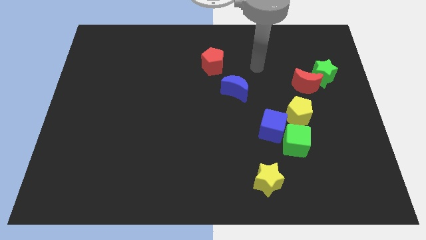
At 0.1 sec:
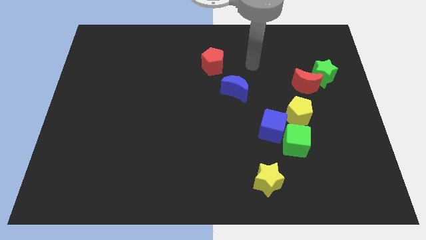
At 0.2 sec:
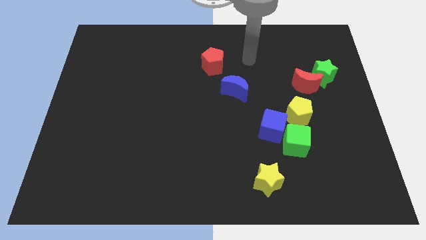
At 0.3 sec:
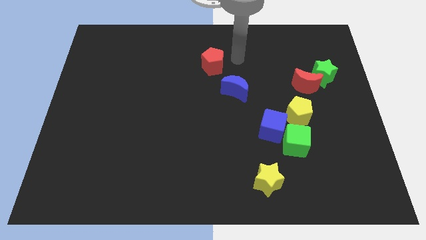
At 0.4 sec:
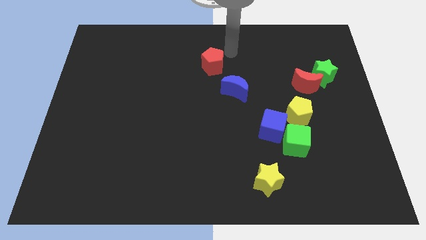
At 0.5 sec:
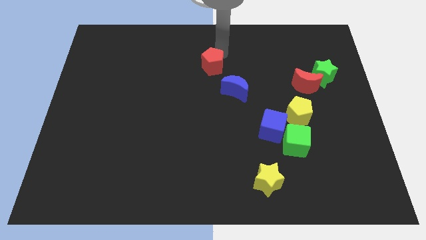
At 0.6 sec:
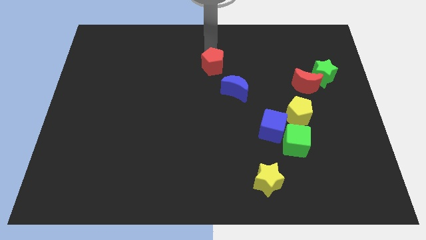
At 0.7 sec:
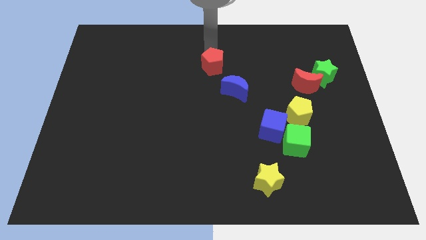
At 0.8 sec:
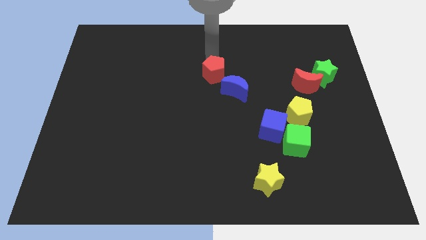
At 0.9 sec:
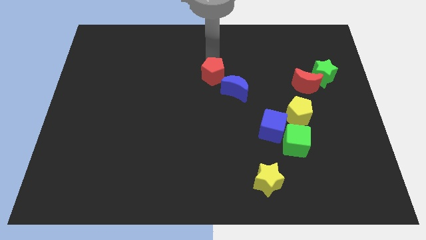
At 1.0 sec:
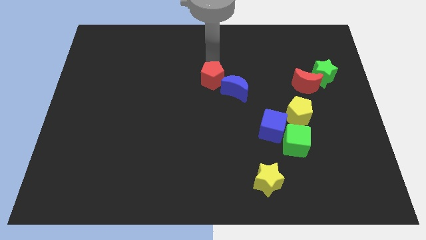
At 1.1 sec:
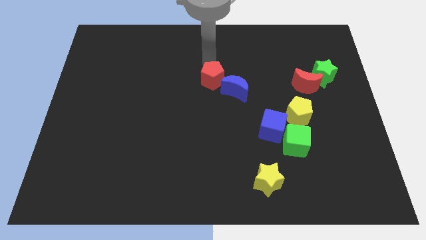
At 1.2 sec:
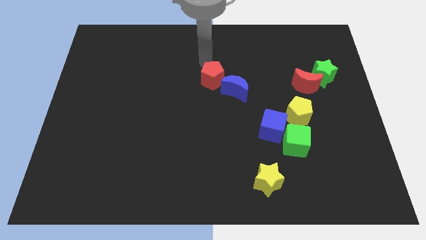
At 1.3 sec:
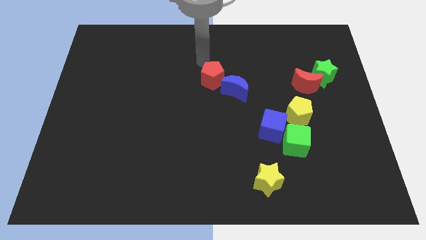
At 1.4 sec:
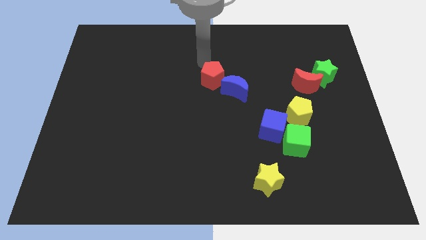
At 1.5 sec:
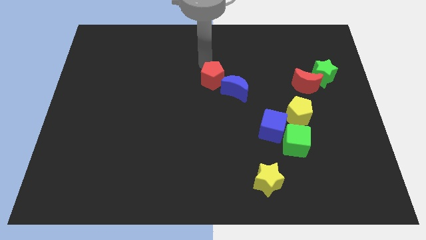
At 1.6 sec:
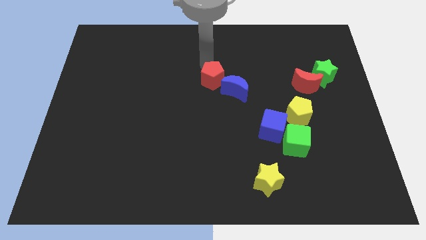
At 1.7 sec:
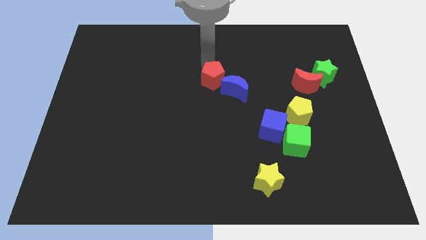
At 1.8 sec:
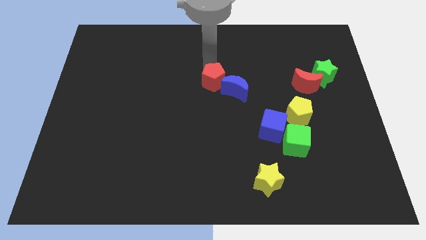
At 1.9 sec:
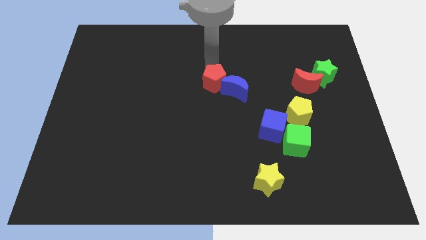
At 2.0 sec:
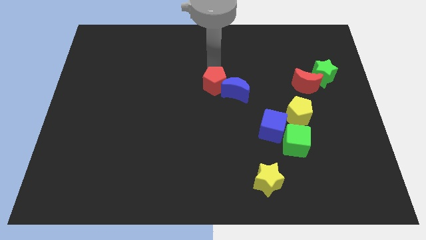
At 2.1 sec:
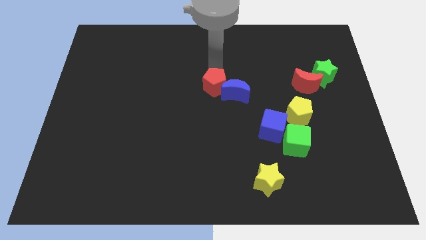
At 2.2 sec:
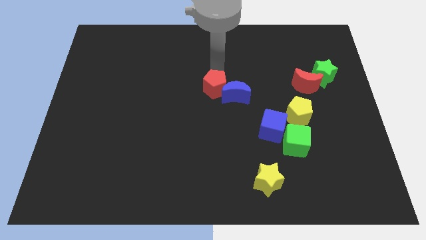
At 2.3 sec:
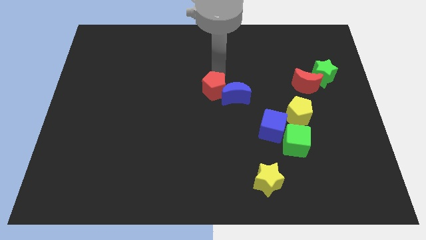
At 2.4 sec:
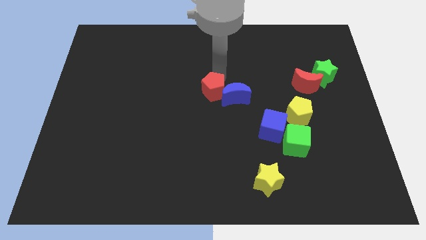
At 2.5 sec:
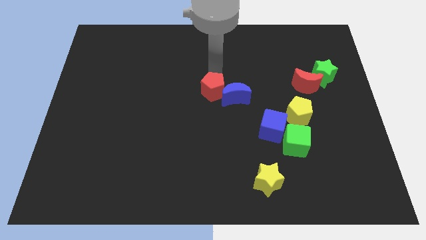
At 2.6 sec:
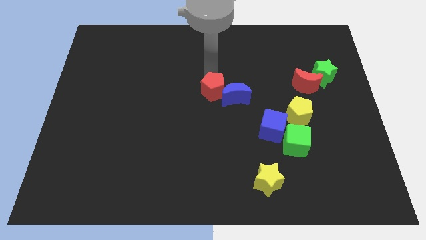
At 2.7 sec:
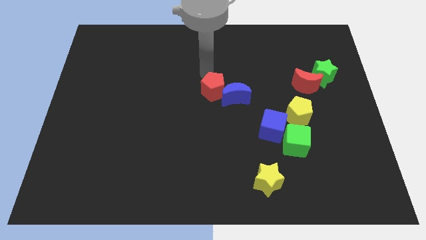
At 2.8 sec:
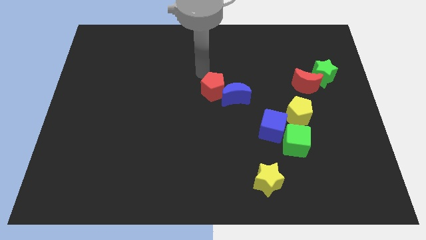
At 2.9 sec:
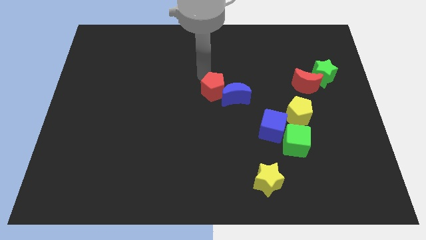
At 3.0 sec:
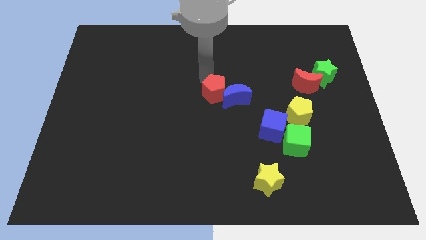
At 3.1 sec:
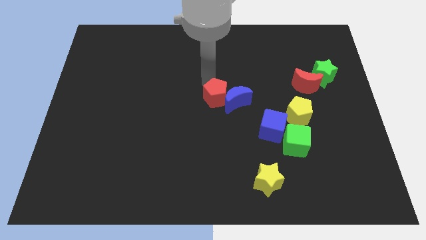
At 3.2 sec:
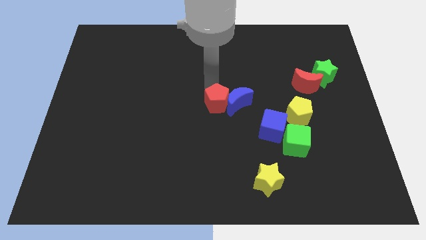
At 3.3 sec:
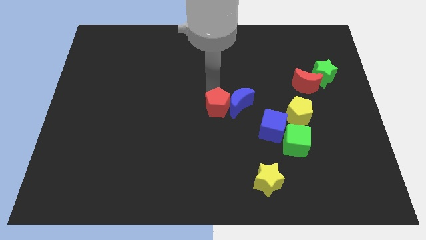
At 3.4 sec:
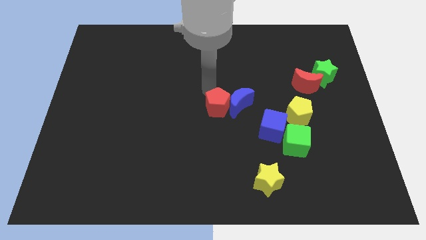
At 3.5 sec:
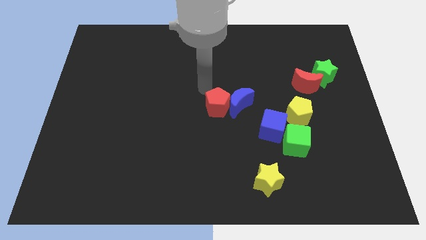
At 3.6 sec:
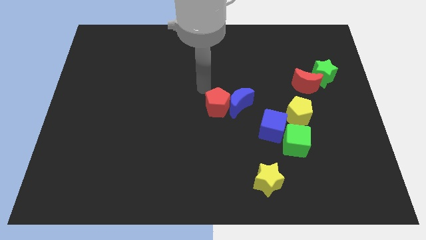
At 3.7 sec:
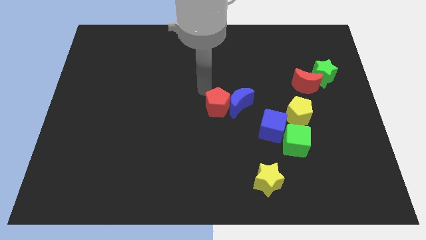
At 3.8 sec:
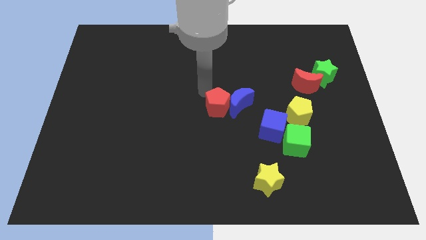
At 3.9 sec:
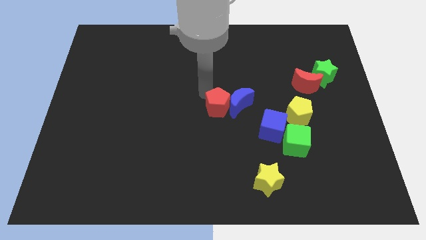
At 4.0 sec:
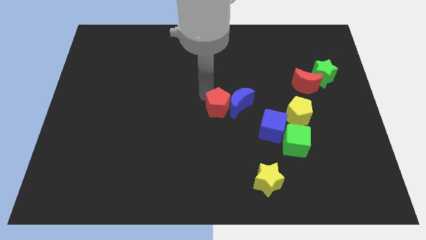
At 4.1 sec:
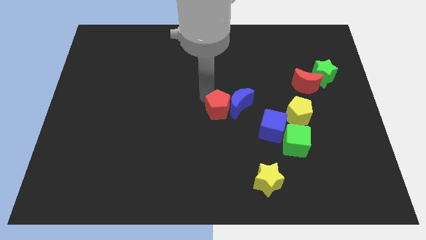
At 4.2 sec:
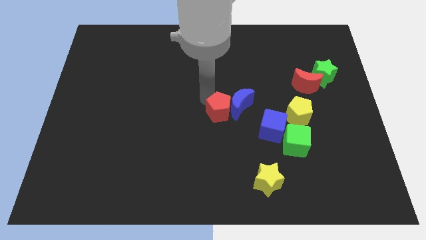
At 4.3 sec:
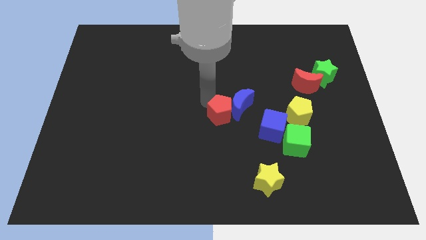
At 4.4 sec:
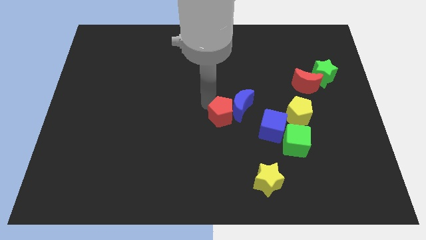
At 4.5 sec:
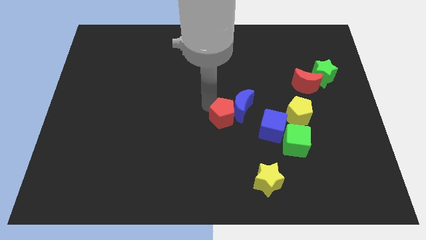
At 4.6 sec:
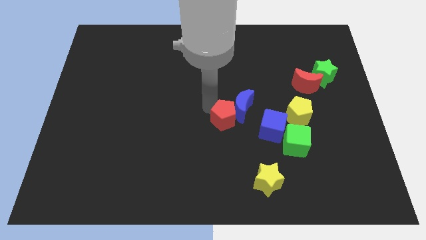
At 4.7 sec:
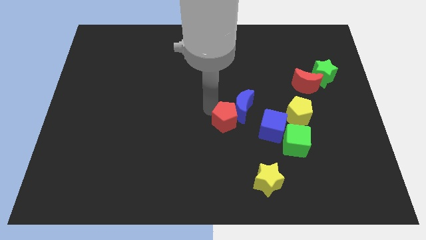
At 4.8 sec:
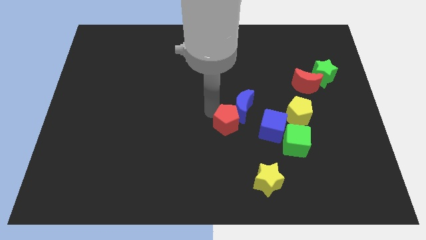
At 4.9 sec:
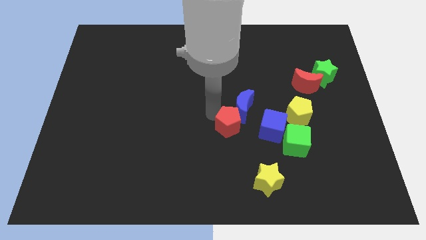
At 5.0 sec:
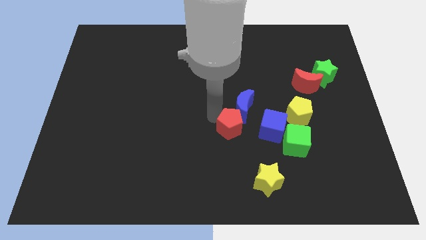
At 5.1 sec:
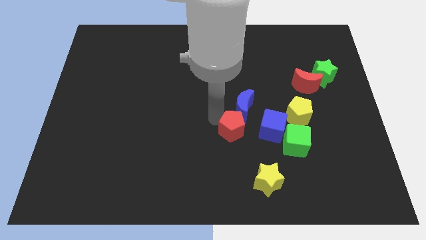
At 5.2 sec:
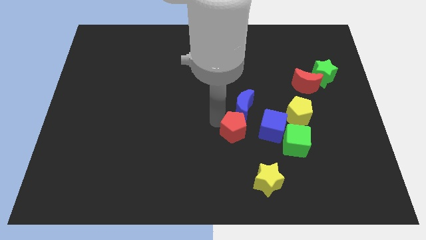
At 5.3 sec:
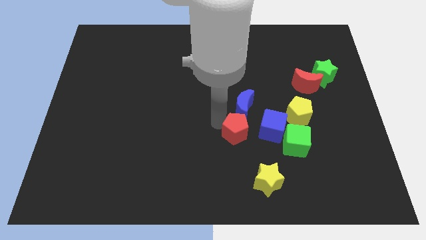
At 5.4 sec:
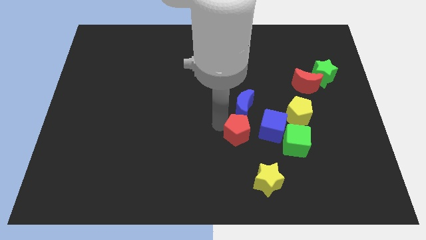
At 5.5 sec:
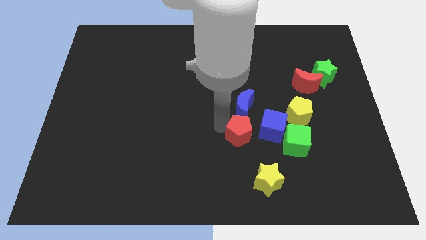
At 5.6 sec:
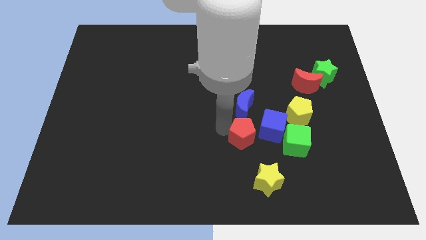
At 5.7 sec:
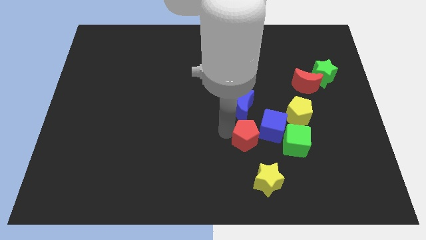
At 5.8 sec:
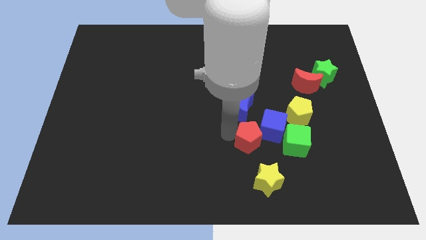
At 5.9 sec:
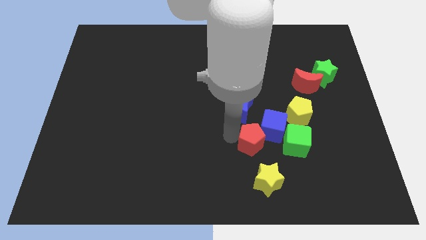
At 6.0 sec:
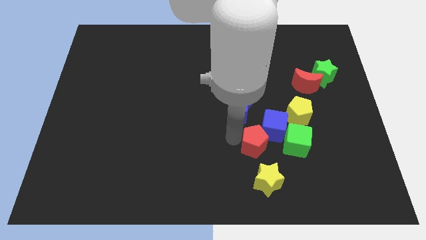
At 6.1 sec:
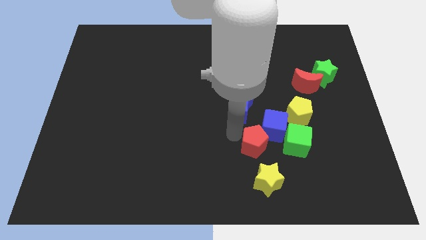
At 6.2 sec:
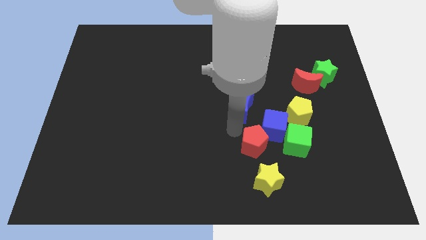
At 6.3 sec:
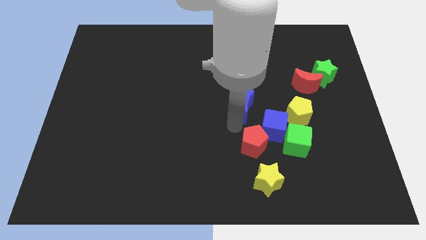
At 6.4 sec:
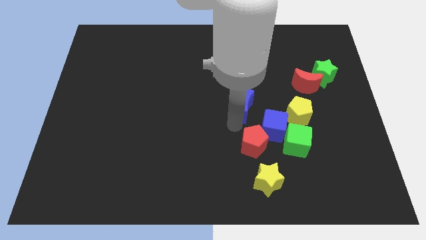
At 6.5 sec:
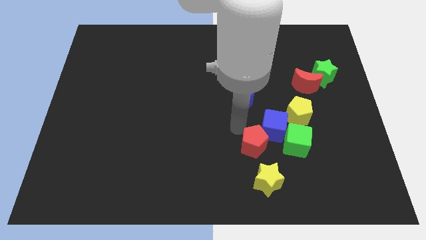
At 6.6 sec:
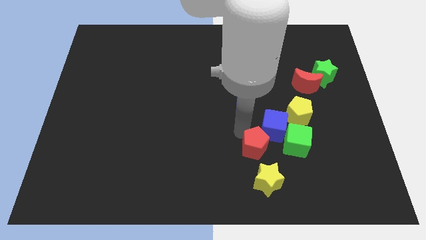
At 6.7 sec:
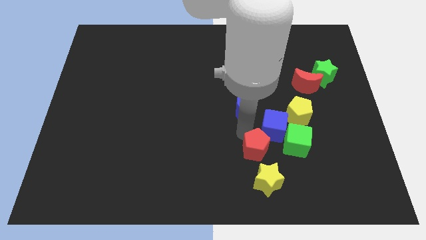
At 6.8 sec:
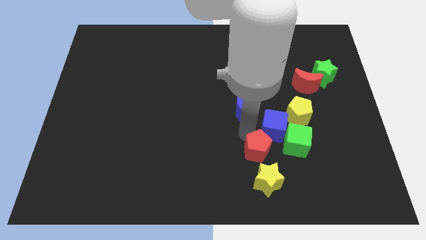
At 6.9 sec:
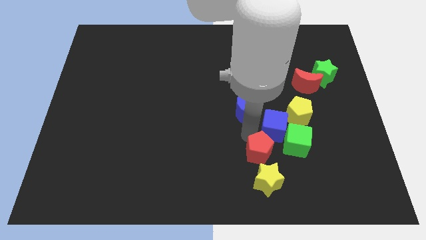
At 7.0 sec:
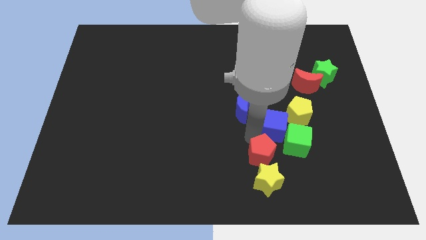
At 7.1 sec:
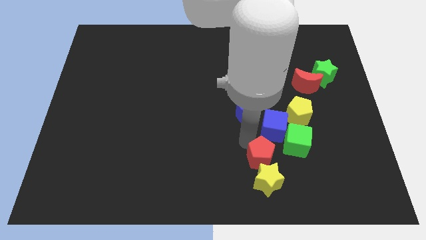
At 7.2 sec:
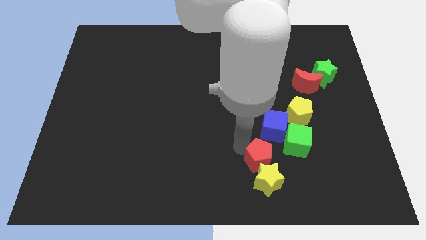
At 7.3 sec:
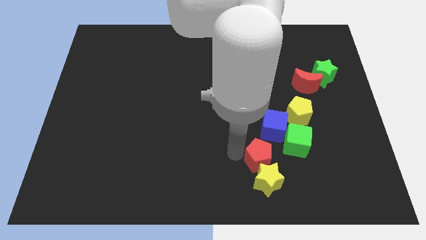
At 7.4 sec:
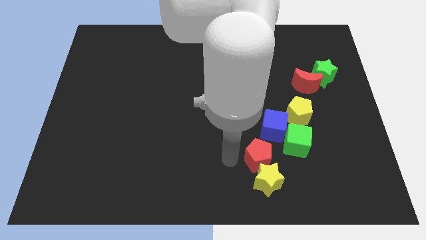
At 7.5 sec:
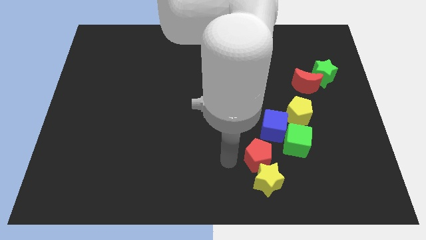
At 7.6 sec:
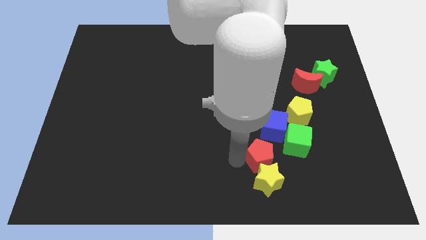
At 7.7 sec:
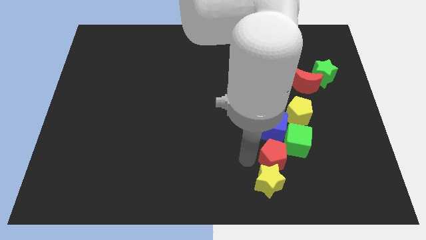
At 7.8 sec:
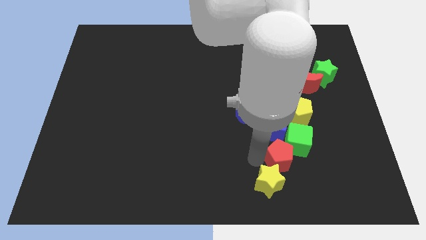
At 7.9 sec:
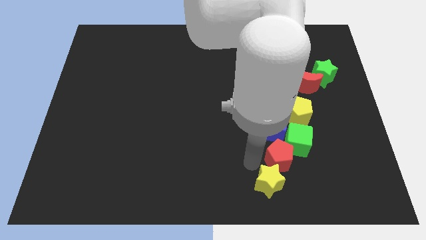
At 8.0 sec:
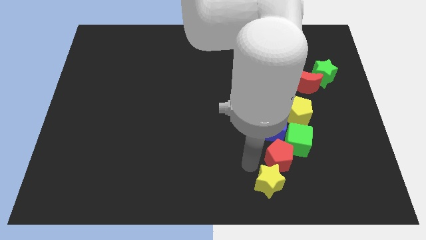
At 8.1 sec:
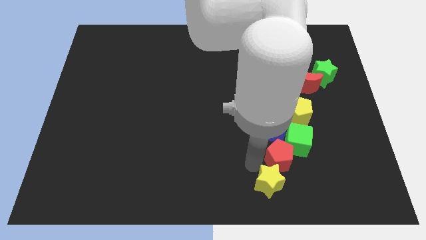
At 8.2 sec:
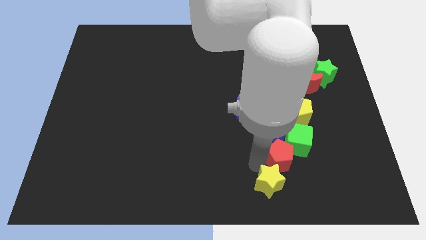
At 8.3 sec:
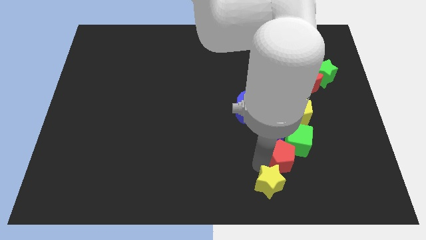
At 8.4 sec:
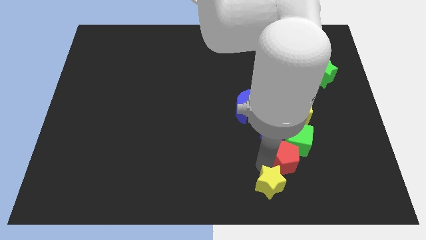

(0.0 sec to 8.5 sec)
move the red pentagon to the bottom of the yellow pentagon
